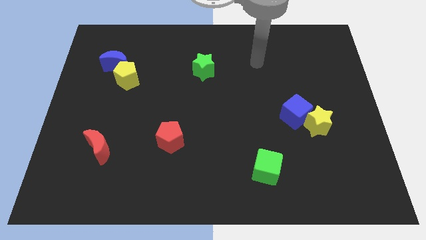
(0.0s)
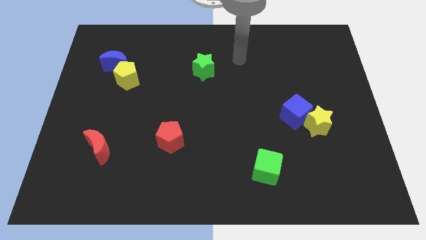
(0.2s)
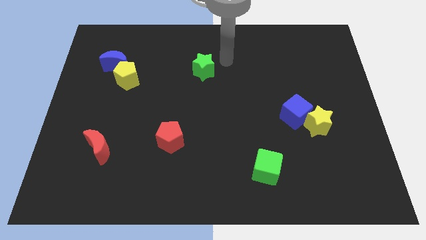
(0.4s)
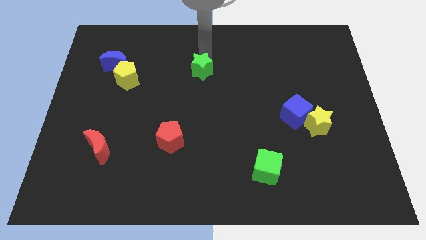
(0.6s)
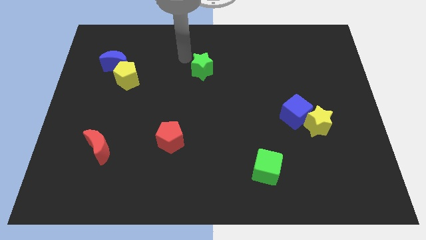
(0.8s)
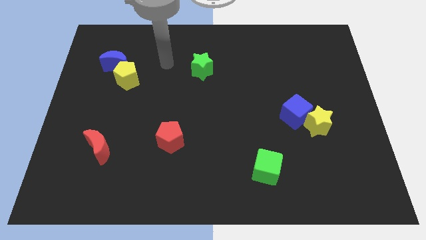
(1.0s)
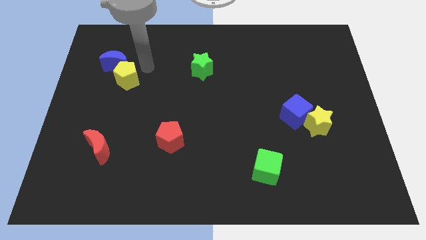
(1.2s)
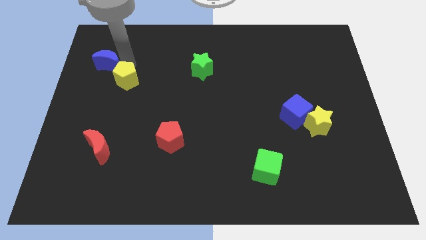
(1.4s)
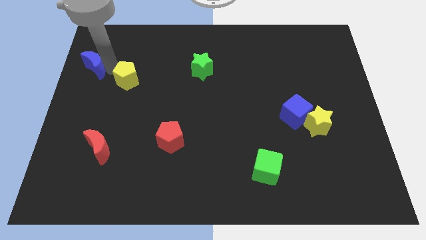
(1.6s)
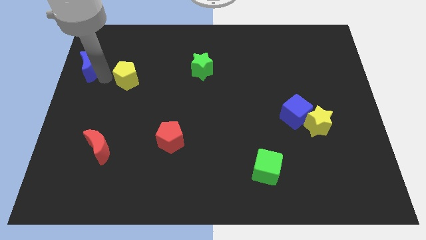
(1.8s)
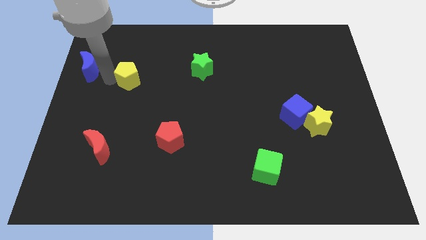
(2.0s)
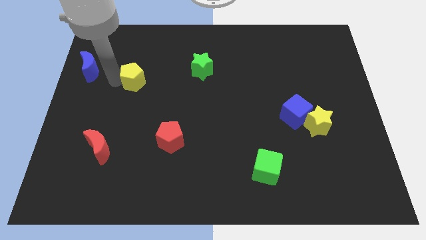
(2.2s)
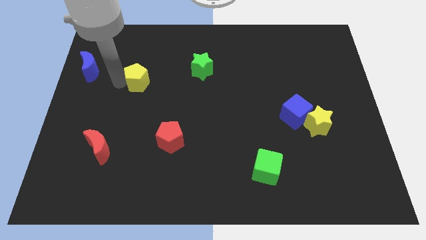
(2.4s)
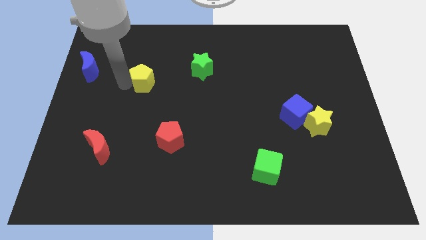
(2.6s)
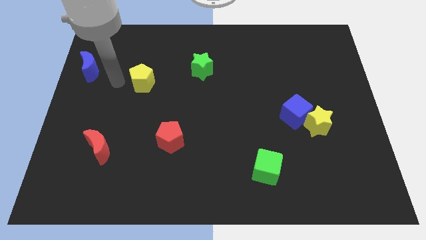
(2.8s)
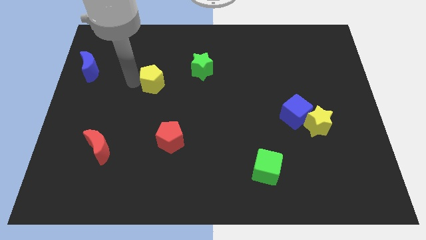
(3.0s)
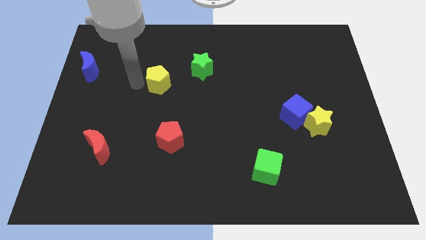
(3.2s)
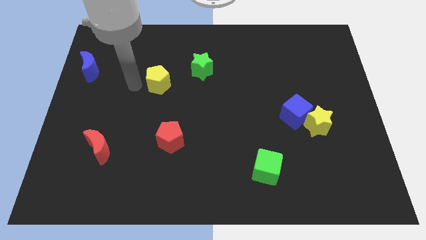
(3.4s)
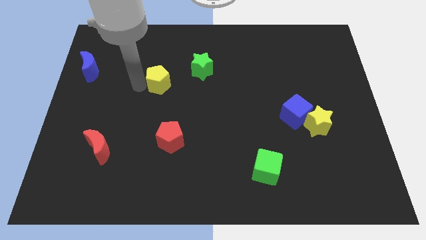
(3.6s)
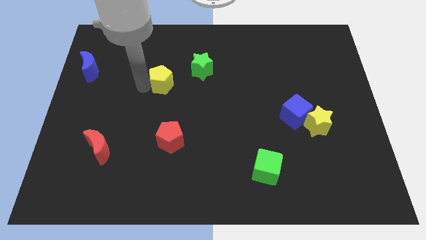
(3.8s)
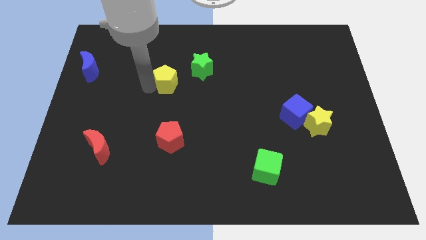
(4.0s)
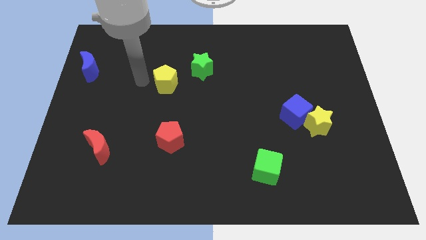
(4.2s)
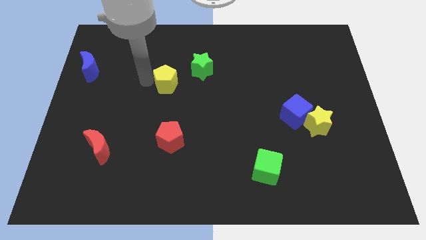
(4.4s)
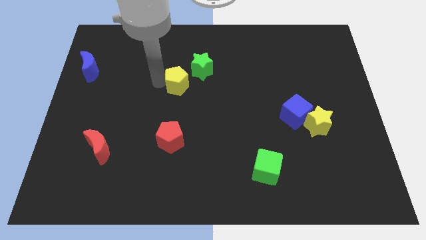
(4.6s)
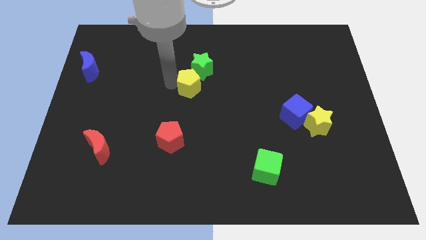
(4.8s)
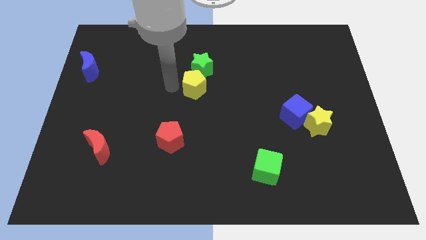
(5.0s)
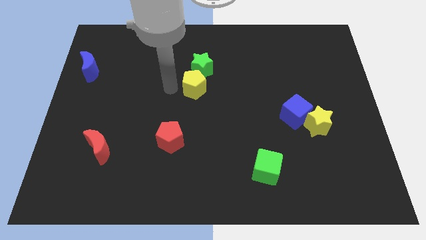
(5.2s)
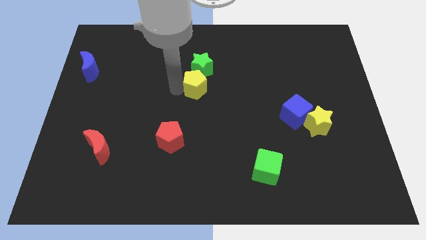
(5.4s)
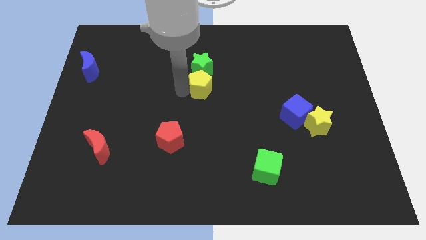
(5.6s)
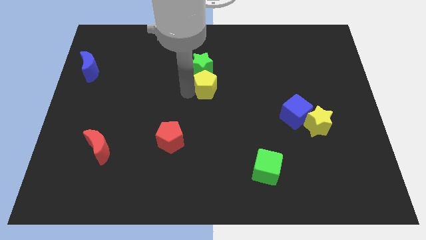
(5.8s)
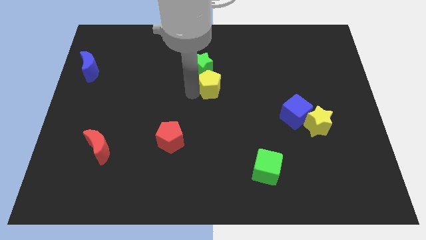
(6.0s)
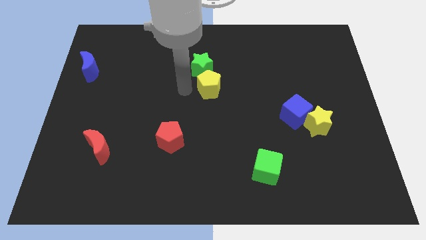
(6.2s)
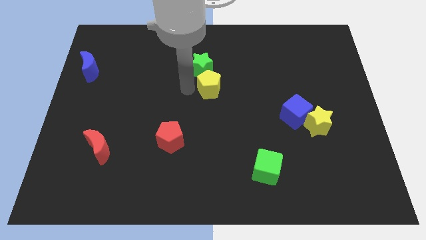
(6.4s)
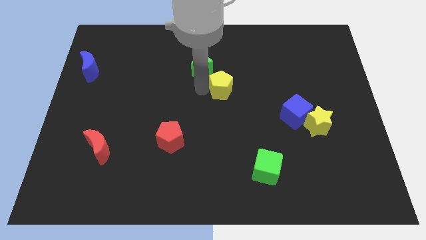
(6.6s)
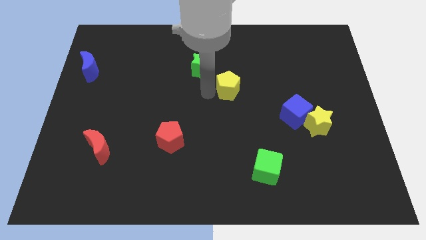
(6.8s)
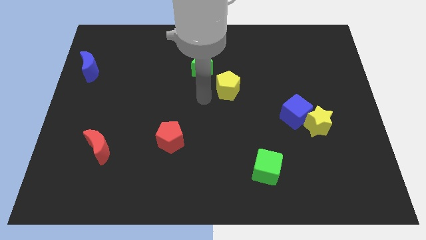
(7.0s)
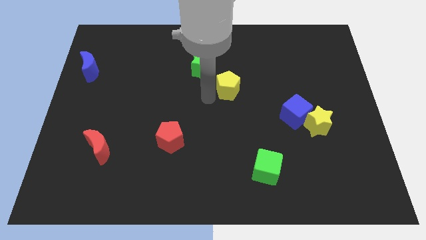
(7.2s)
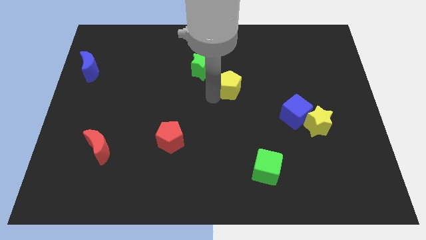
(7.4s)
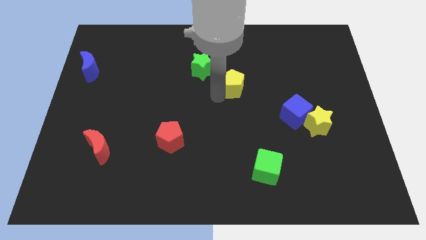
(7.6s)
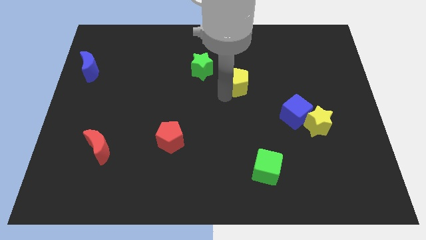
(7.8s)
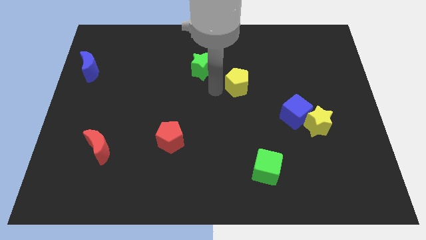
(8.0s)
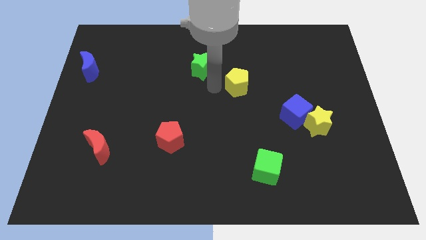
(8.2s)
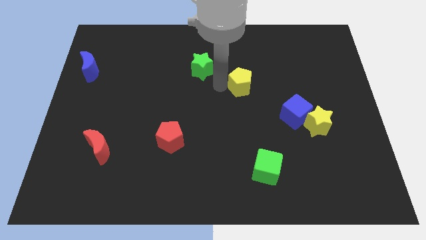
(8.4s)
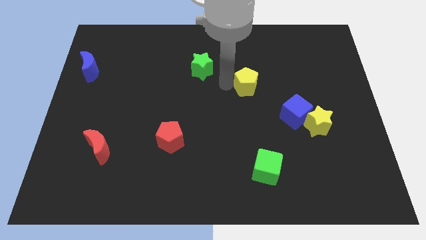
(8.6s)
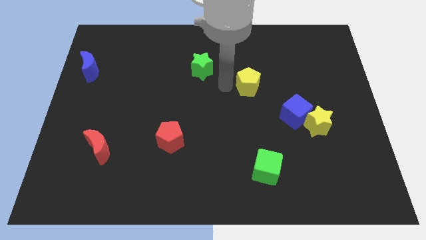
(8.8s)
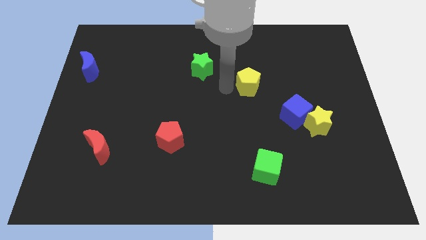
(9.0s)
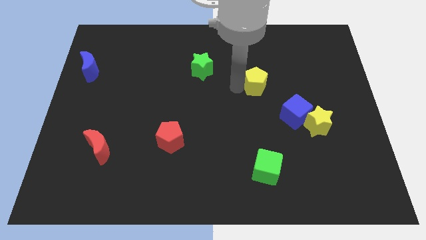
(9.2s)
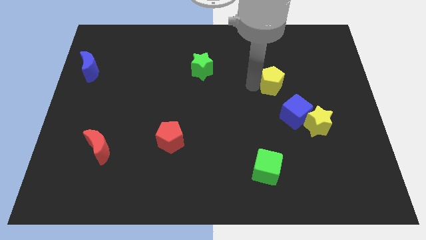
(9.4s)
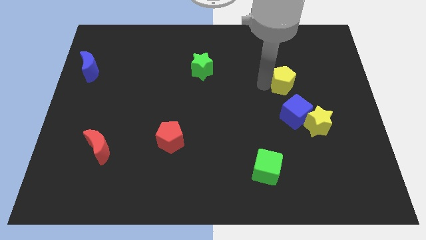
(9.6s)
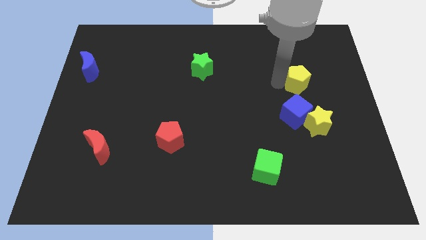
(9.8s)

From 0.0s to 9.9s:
slide the yellow pentagon to the top side of the yellow star

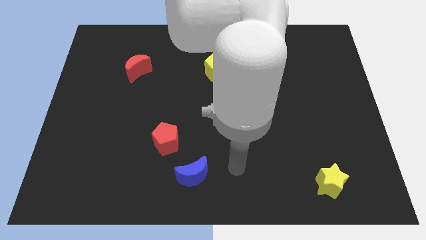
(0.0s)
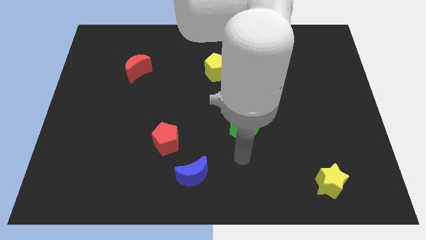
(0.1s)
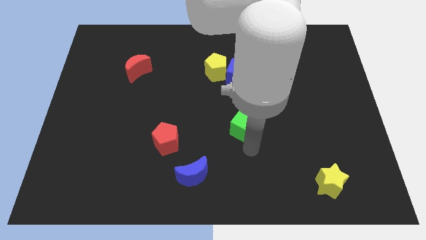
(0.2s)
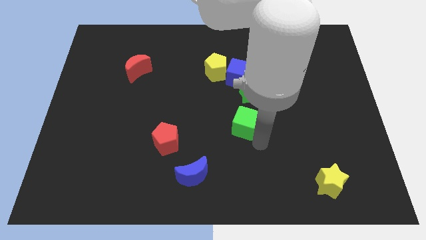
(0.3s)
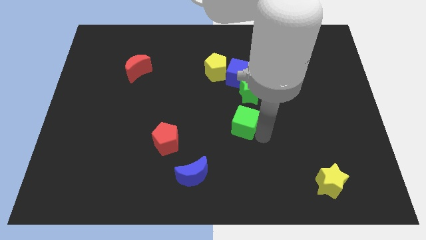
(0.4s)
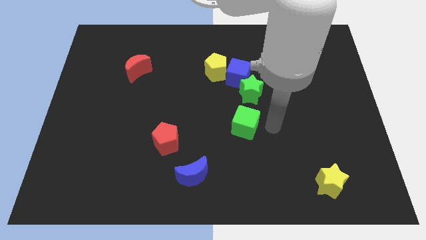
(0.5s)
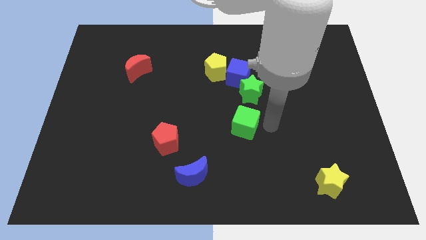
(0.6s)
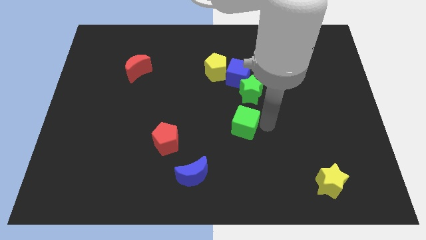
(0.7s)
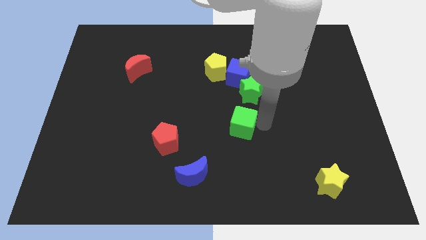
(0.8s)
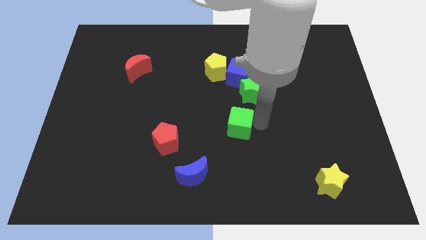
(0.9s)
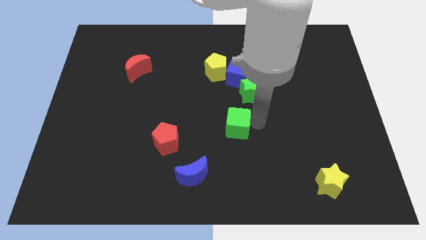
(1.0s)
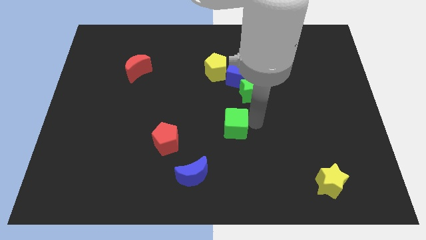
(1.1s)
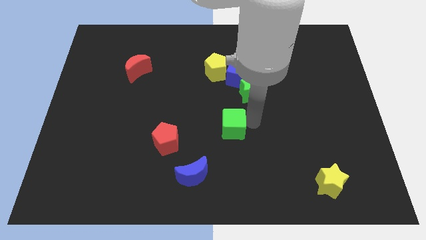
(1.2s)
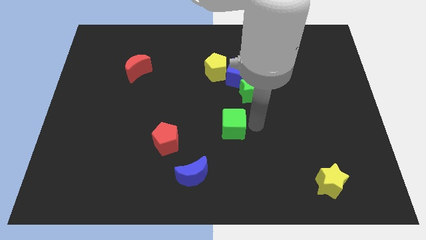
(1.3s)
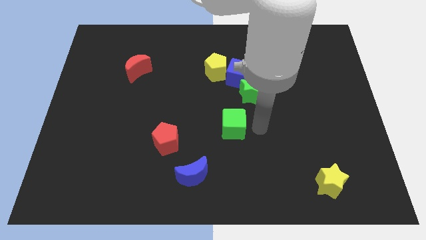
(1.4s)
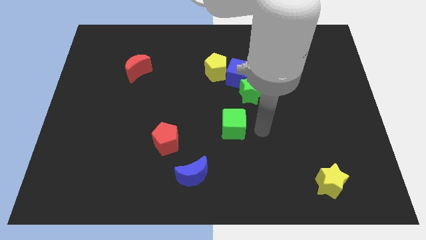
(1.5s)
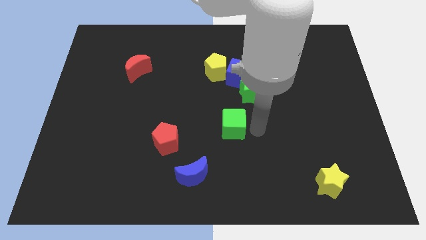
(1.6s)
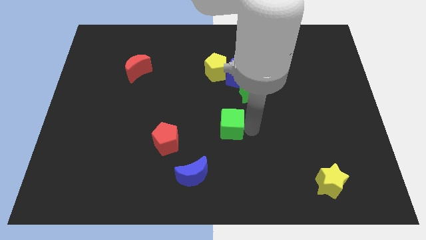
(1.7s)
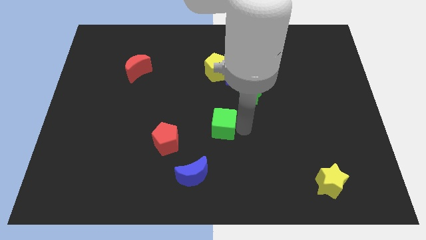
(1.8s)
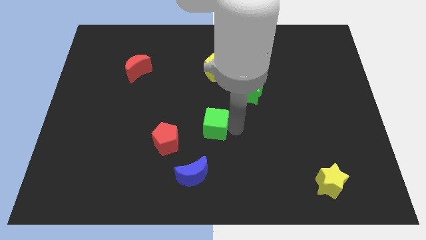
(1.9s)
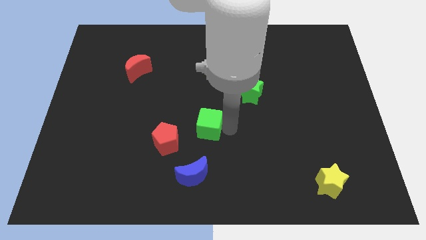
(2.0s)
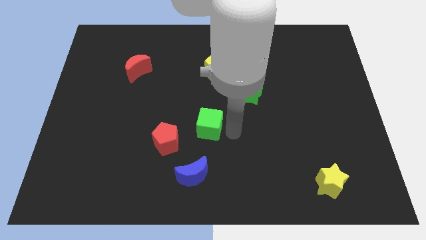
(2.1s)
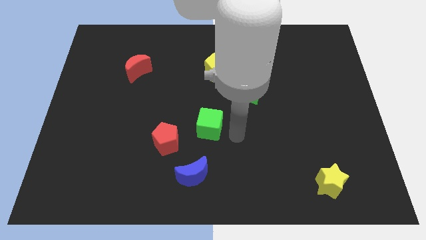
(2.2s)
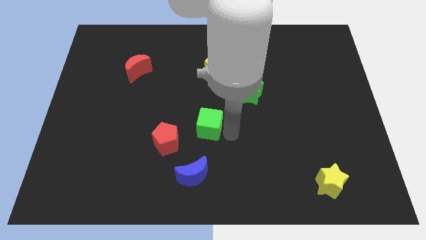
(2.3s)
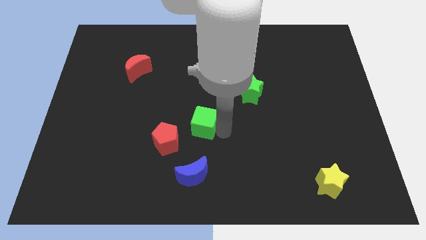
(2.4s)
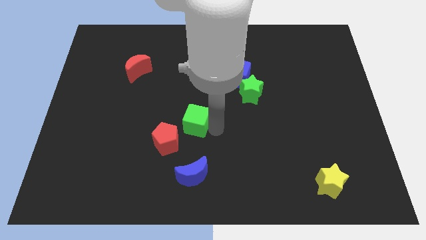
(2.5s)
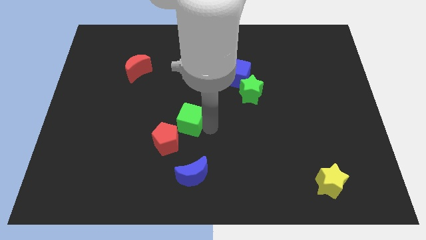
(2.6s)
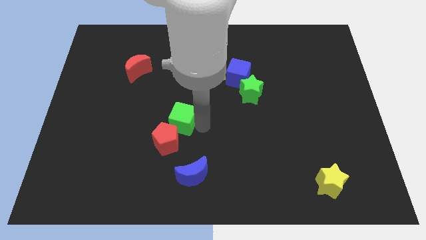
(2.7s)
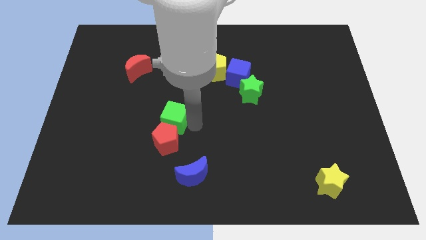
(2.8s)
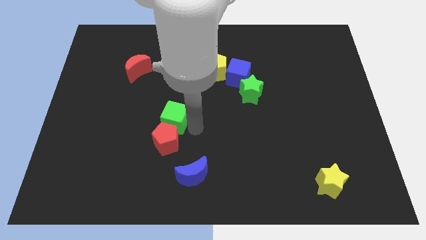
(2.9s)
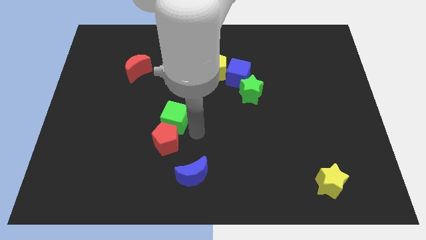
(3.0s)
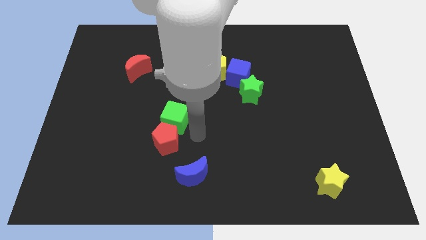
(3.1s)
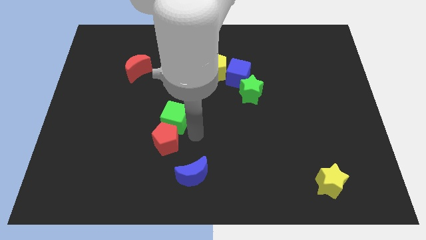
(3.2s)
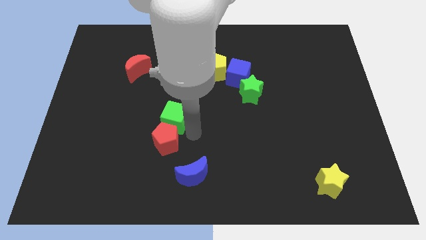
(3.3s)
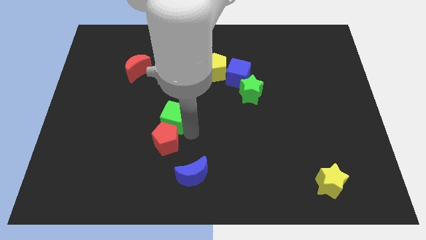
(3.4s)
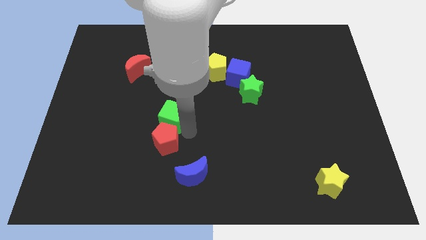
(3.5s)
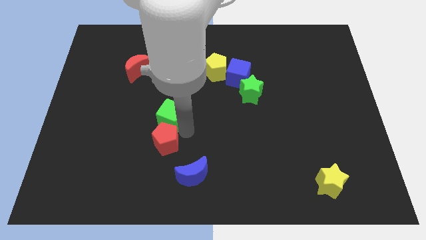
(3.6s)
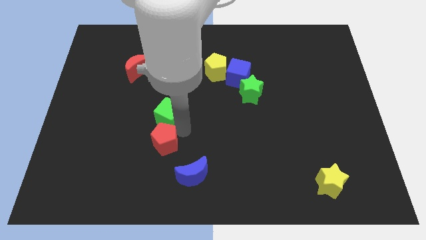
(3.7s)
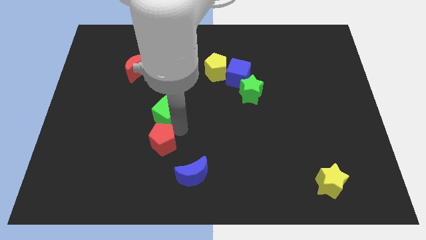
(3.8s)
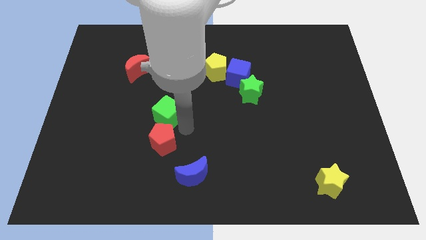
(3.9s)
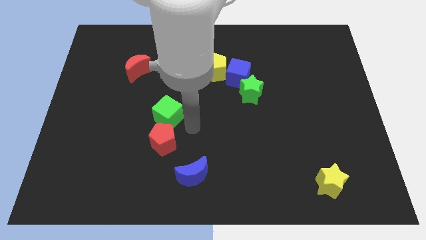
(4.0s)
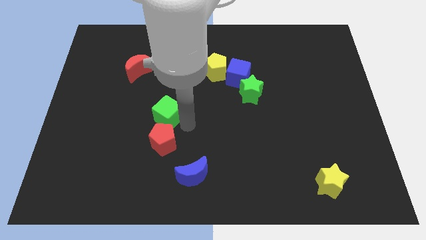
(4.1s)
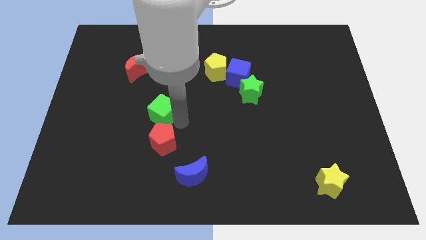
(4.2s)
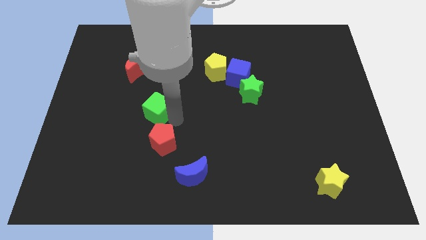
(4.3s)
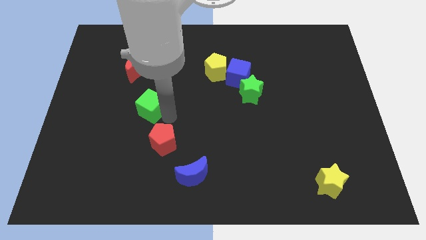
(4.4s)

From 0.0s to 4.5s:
push the green cube below the red moon
